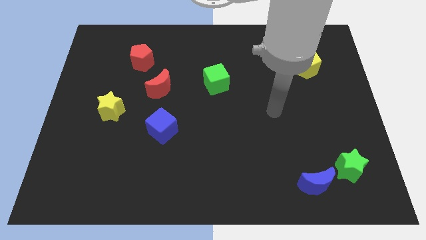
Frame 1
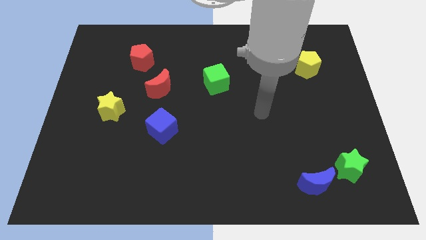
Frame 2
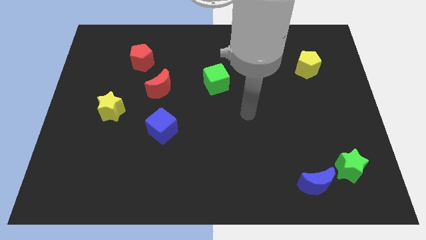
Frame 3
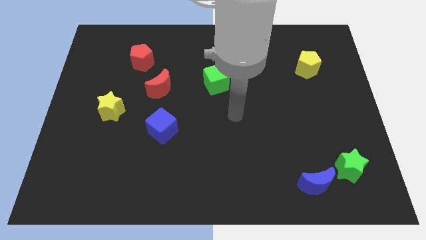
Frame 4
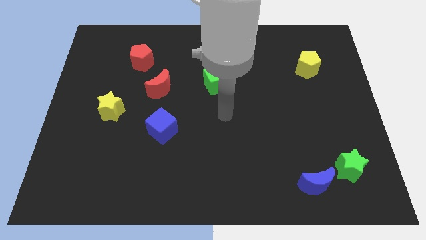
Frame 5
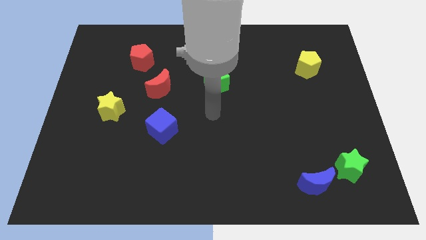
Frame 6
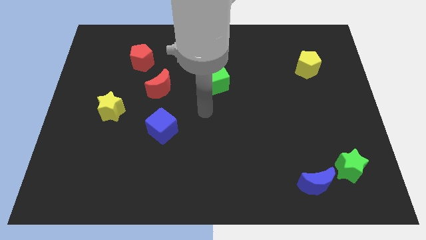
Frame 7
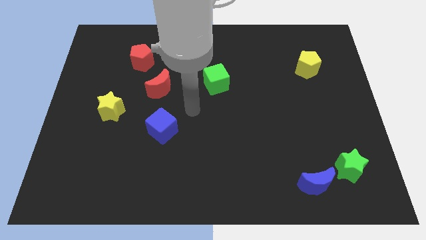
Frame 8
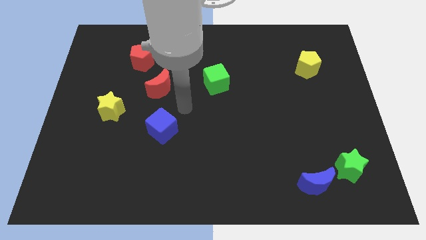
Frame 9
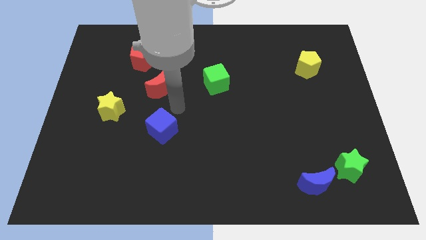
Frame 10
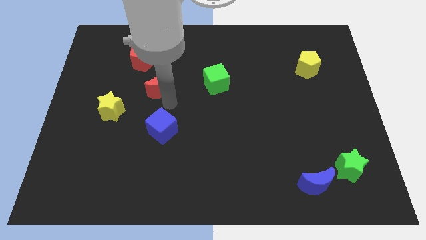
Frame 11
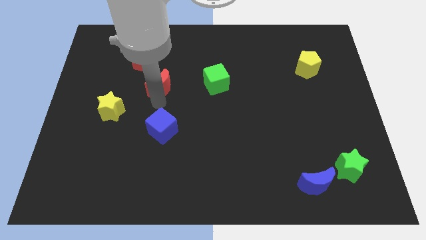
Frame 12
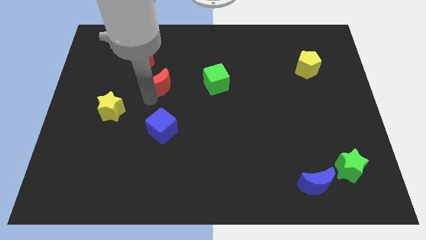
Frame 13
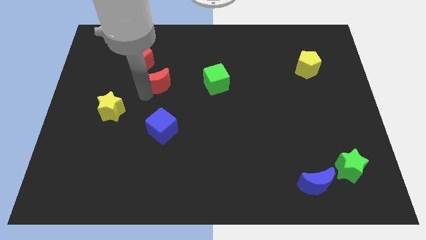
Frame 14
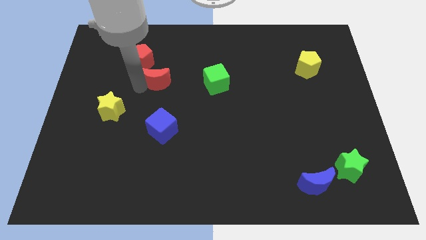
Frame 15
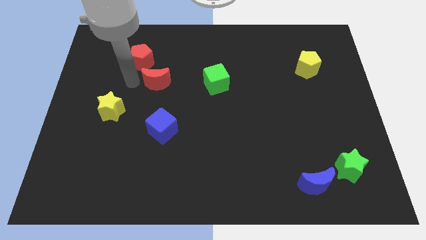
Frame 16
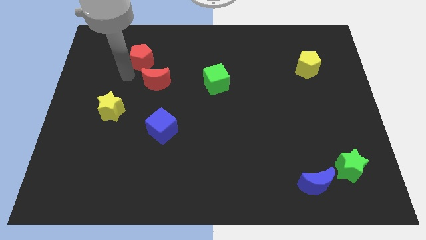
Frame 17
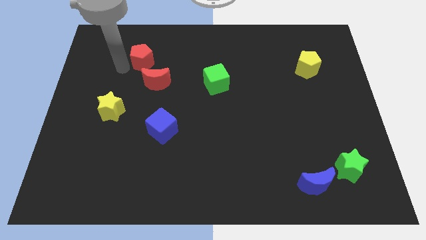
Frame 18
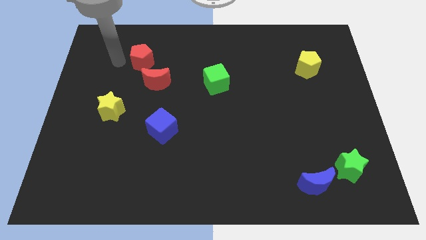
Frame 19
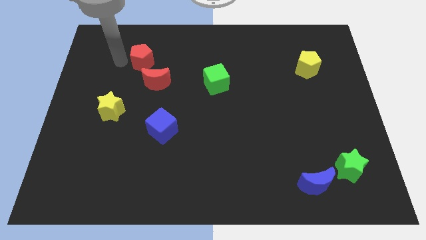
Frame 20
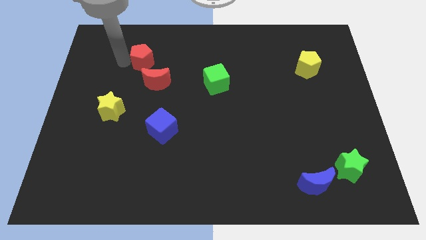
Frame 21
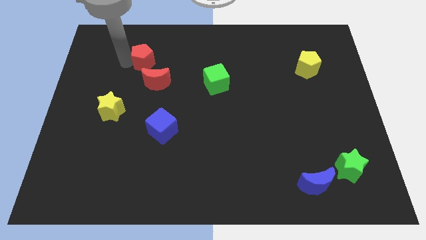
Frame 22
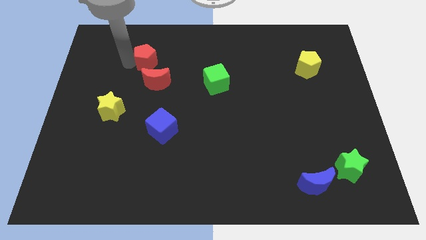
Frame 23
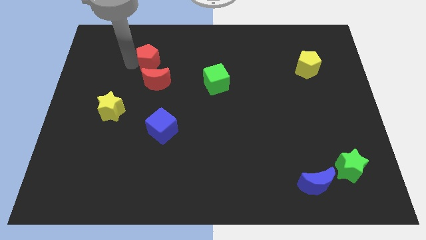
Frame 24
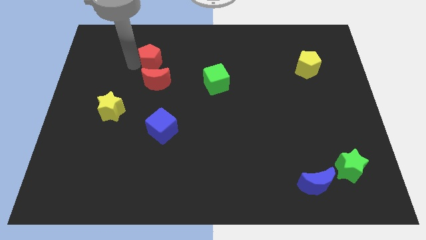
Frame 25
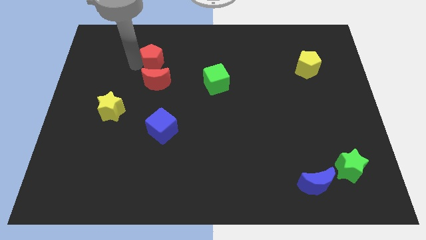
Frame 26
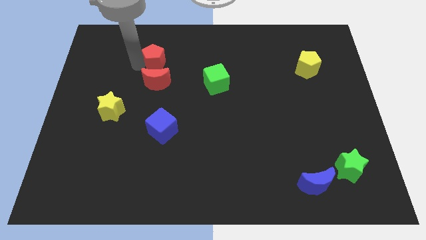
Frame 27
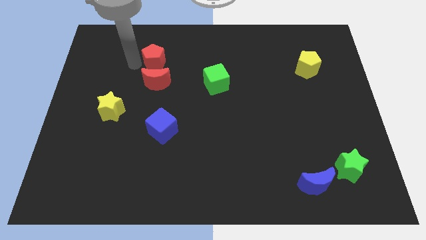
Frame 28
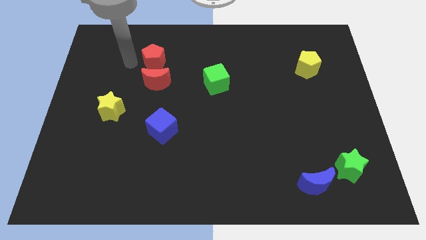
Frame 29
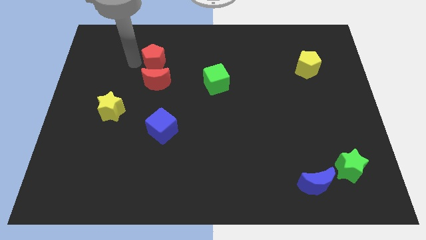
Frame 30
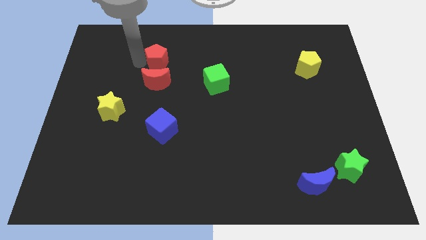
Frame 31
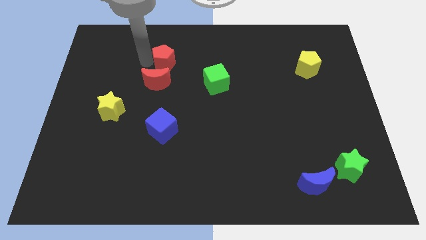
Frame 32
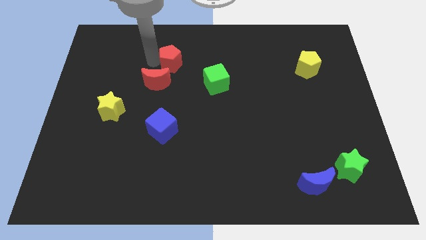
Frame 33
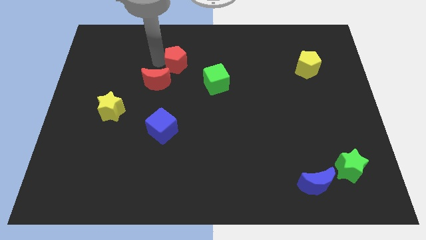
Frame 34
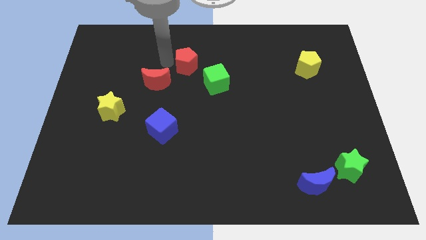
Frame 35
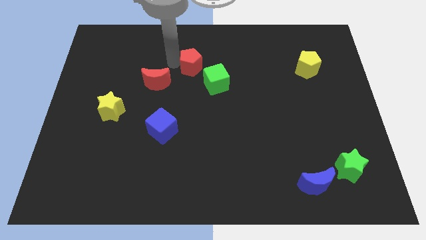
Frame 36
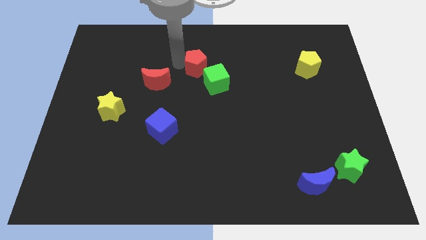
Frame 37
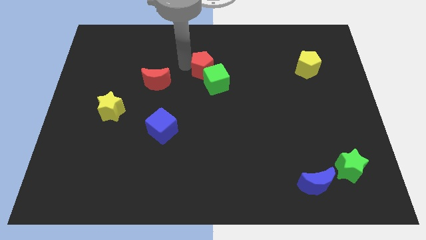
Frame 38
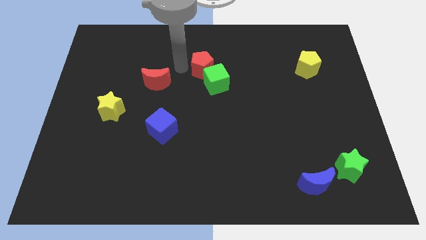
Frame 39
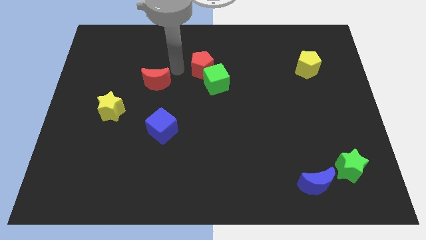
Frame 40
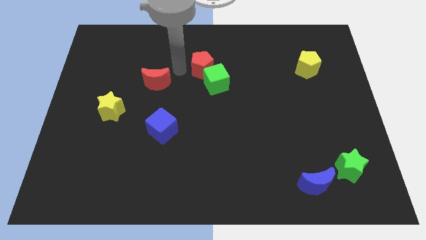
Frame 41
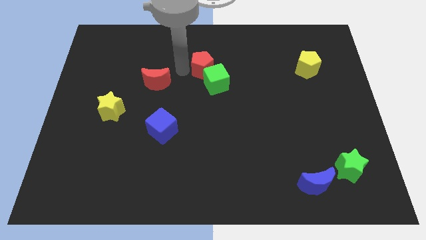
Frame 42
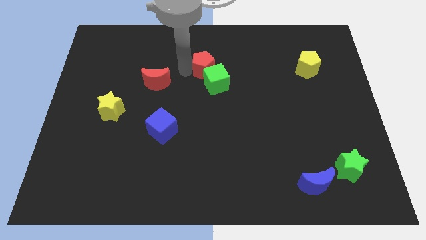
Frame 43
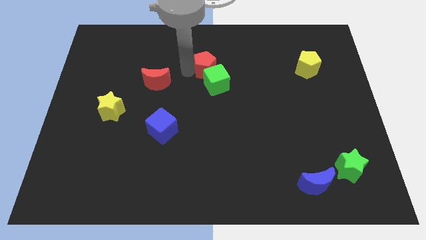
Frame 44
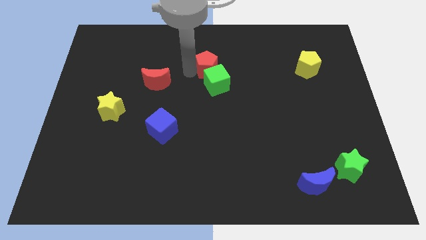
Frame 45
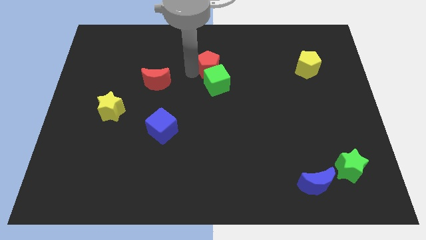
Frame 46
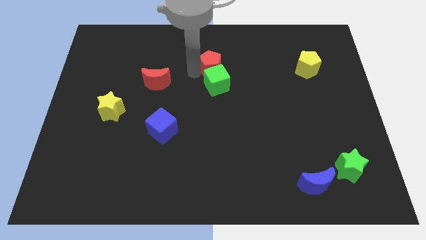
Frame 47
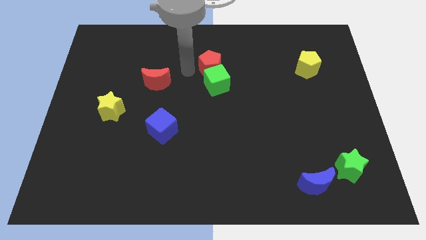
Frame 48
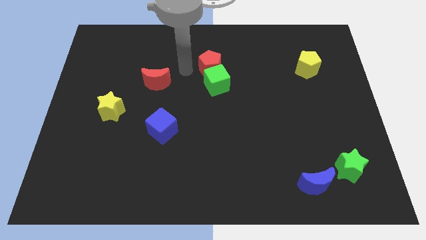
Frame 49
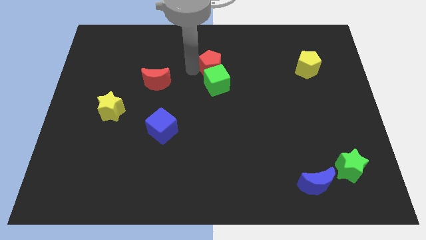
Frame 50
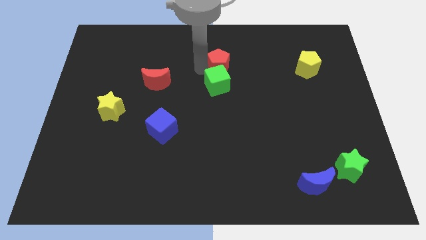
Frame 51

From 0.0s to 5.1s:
slide the red pentagon to the right

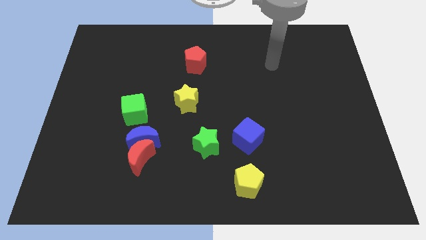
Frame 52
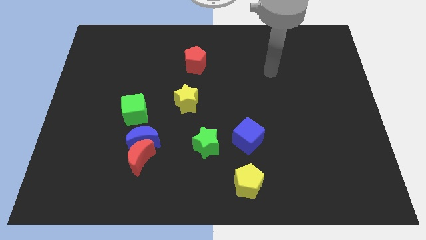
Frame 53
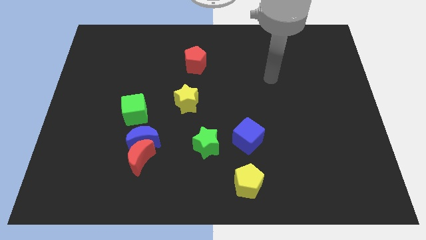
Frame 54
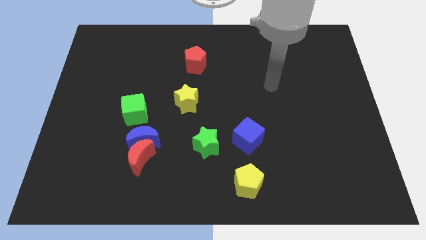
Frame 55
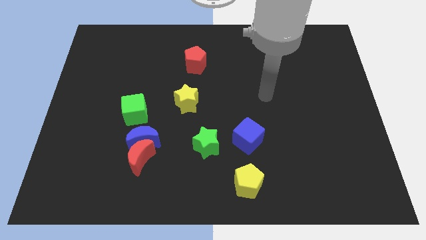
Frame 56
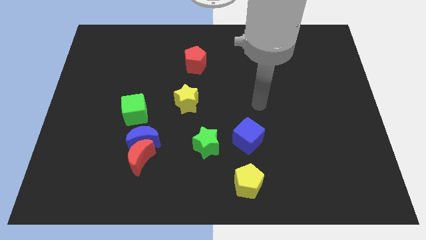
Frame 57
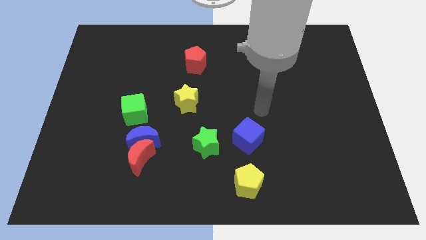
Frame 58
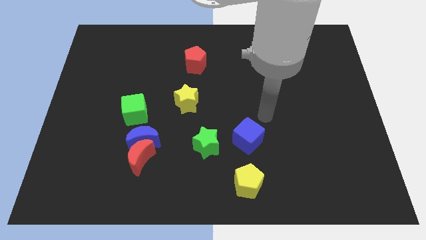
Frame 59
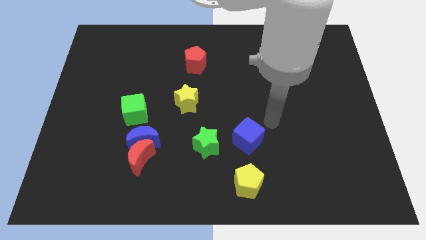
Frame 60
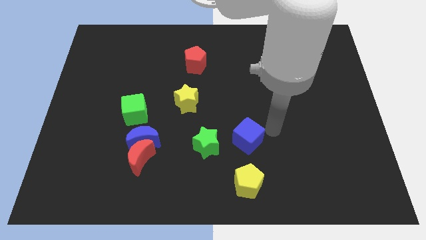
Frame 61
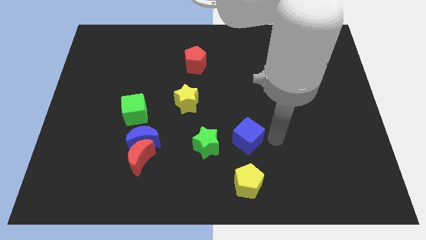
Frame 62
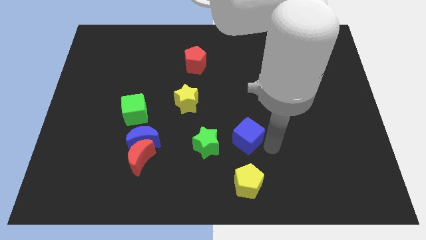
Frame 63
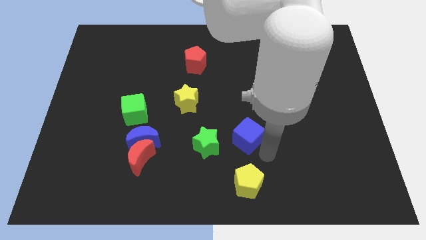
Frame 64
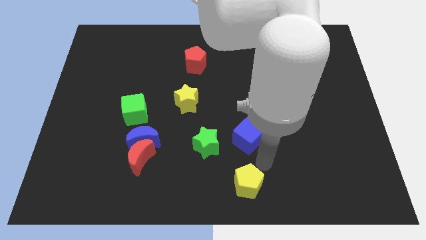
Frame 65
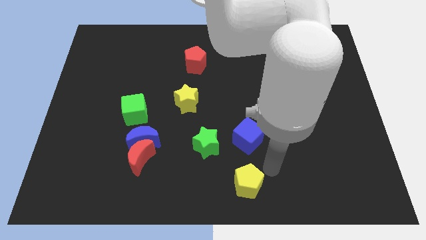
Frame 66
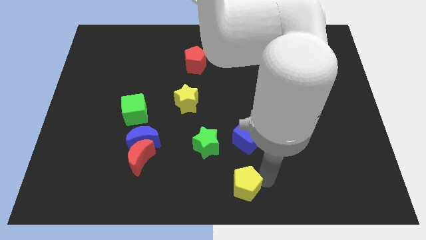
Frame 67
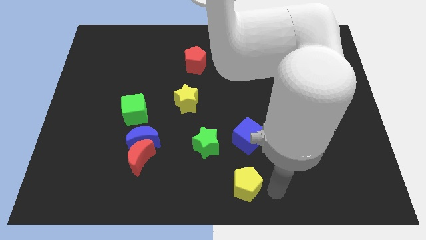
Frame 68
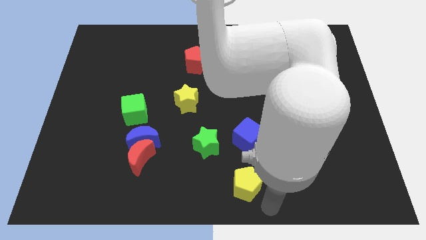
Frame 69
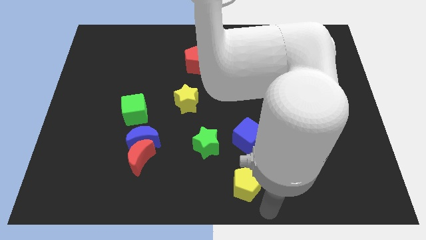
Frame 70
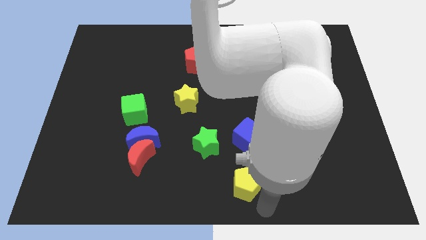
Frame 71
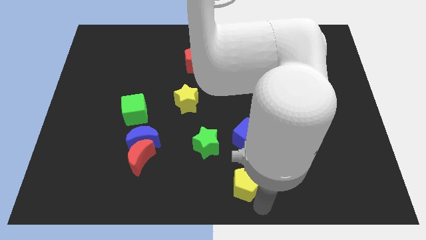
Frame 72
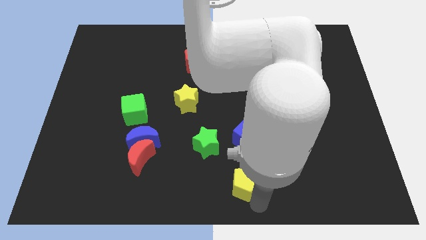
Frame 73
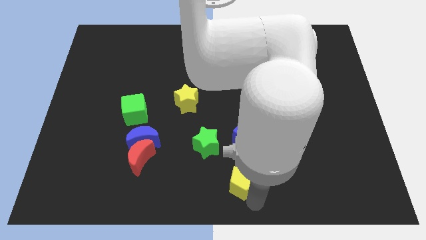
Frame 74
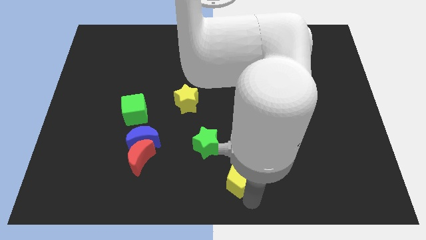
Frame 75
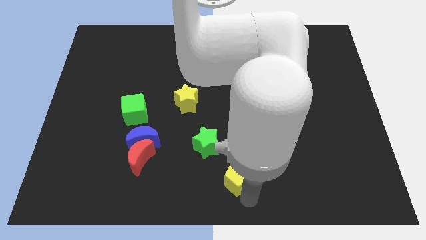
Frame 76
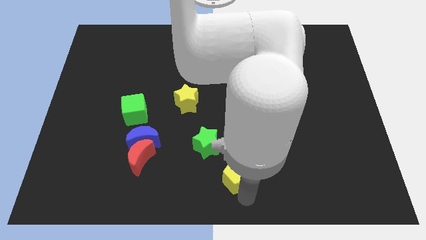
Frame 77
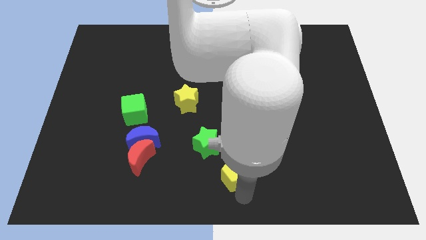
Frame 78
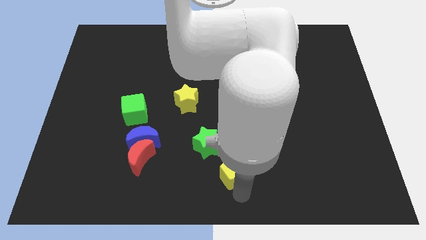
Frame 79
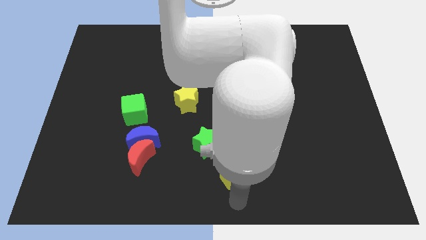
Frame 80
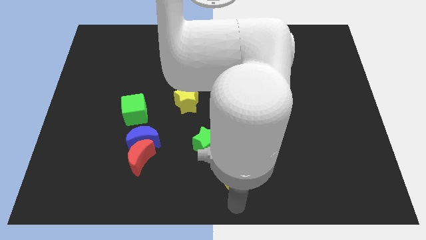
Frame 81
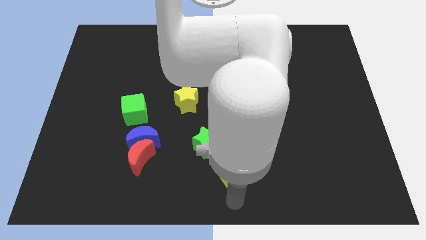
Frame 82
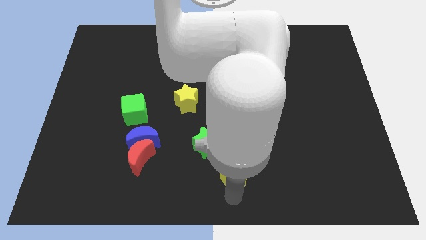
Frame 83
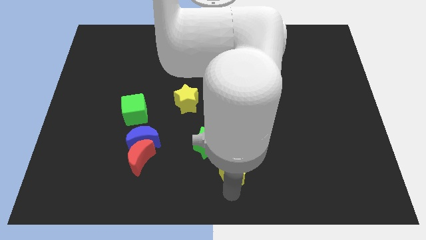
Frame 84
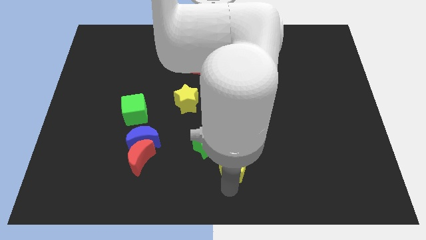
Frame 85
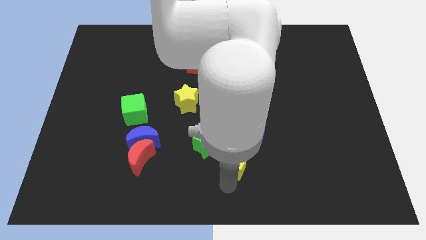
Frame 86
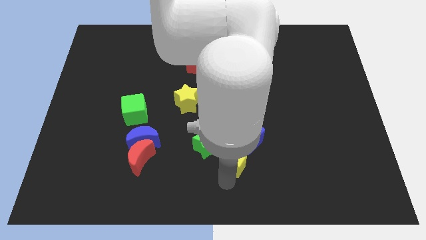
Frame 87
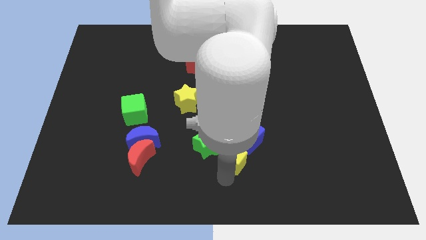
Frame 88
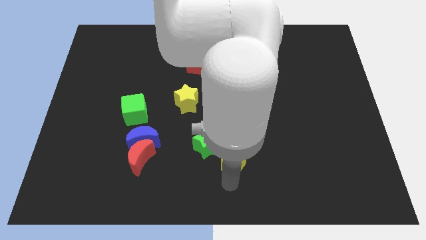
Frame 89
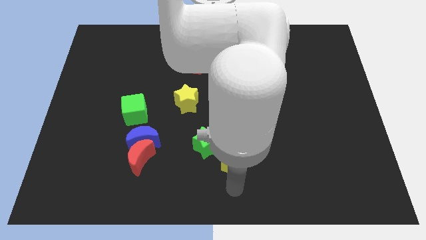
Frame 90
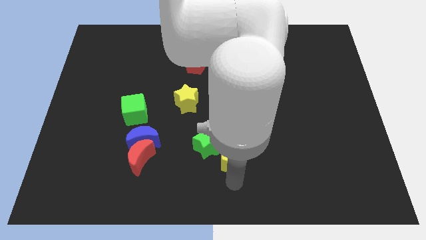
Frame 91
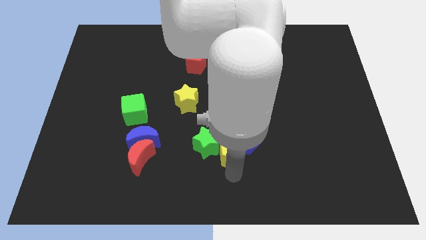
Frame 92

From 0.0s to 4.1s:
slightly slide the yellow pentagon upwards and to the left
